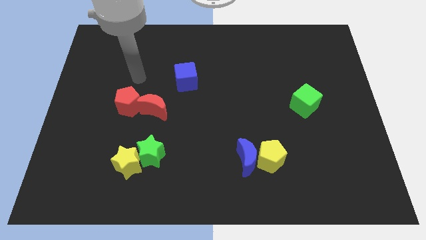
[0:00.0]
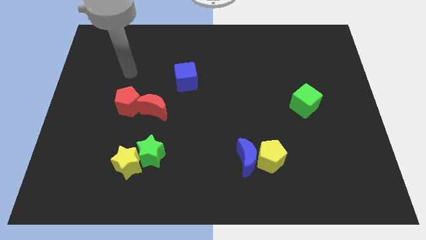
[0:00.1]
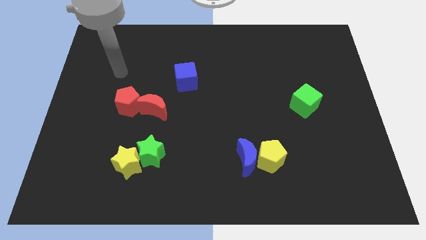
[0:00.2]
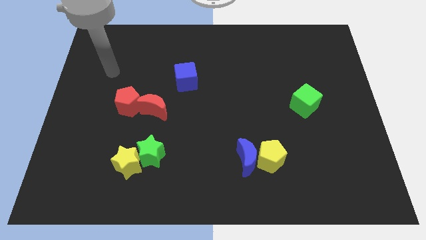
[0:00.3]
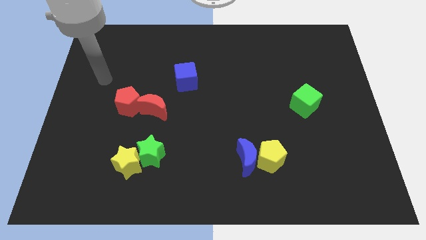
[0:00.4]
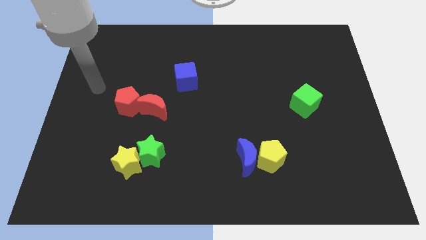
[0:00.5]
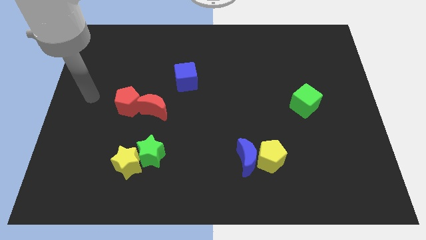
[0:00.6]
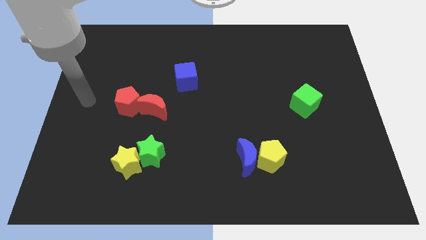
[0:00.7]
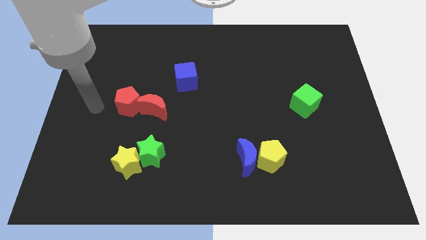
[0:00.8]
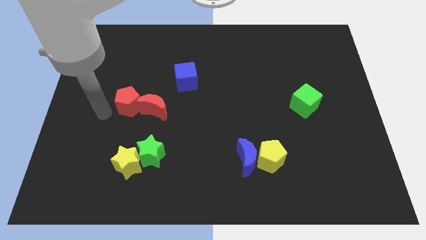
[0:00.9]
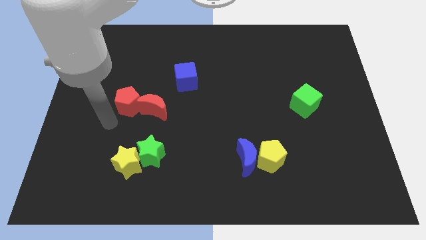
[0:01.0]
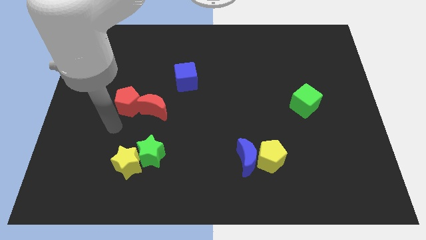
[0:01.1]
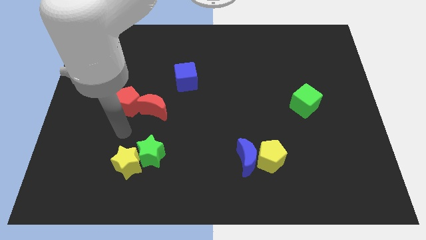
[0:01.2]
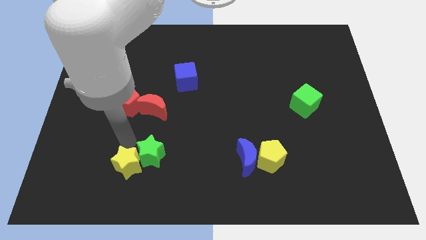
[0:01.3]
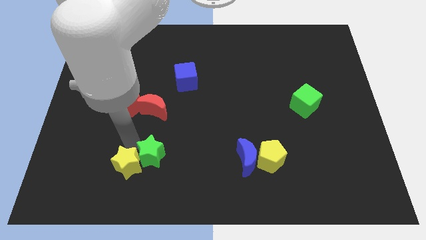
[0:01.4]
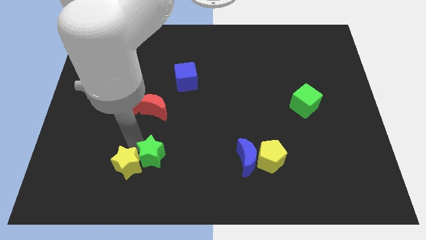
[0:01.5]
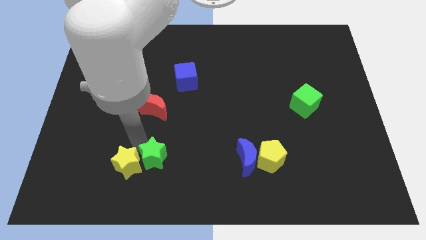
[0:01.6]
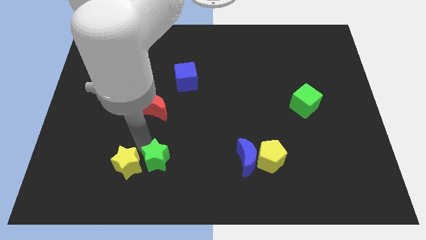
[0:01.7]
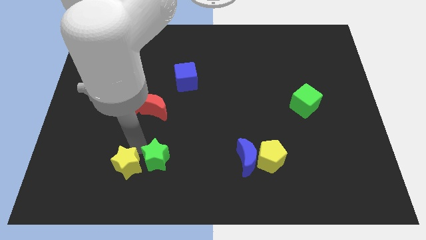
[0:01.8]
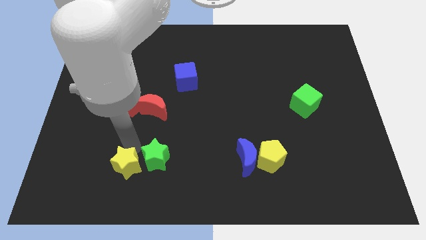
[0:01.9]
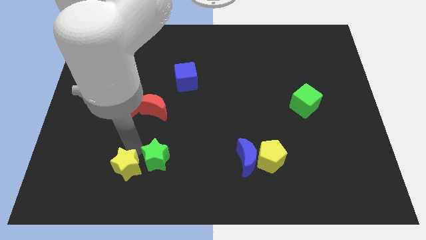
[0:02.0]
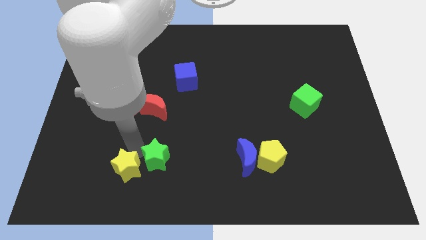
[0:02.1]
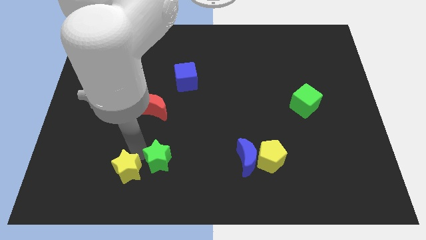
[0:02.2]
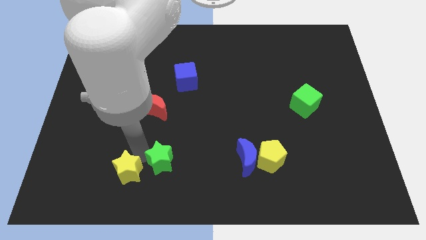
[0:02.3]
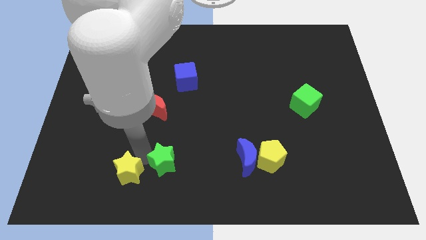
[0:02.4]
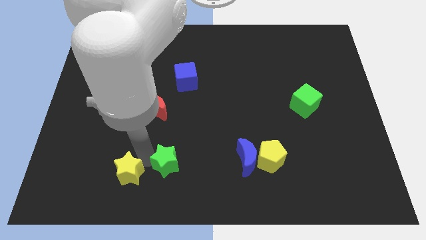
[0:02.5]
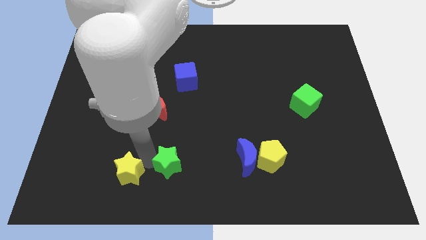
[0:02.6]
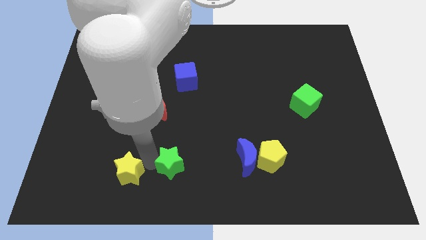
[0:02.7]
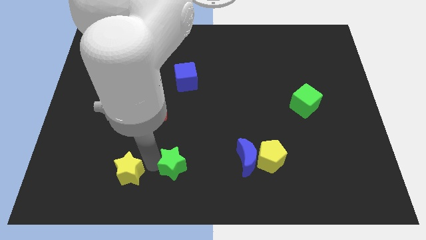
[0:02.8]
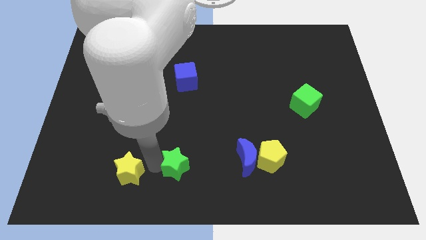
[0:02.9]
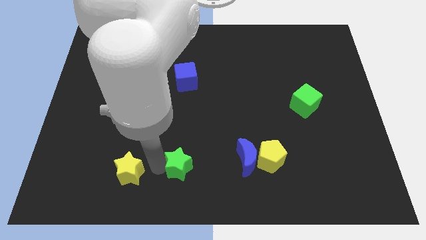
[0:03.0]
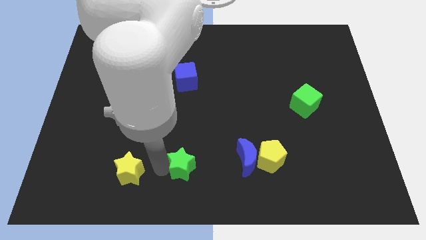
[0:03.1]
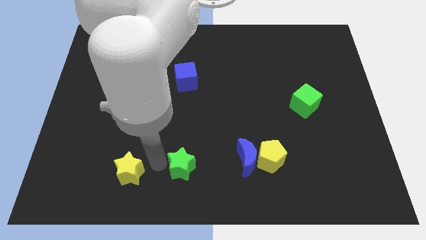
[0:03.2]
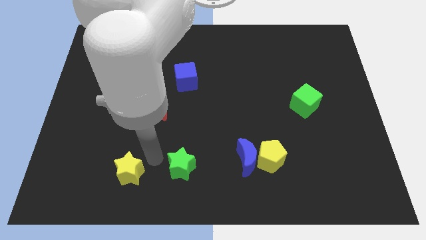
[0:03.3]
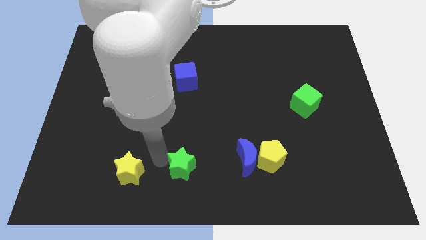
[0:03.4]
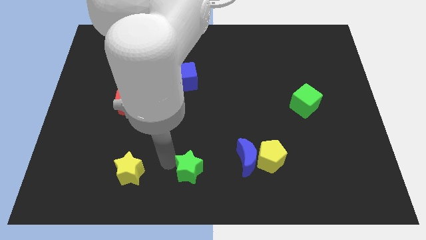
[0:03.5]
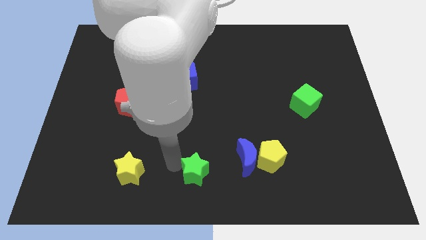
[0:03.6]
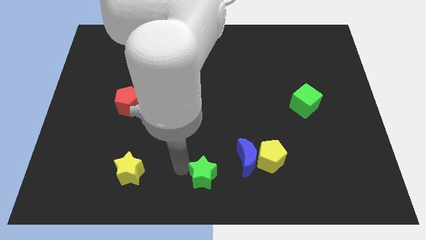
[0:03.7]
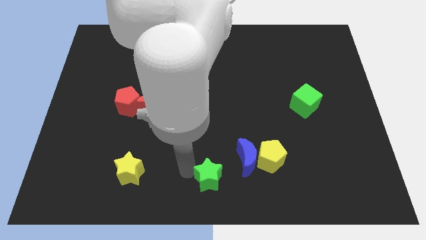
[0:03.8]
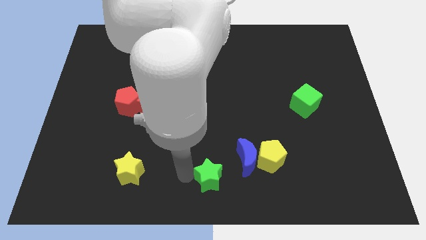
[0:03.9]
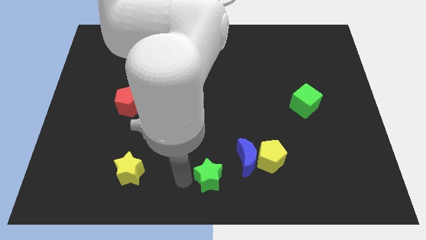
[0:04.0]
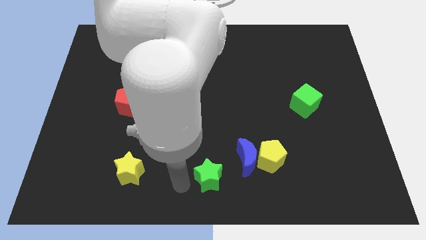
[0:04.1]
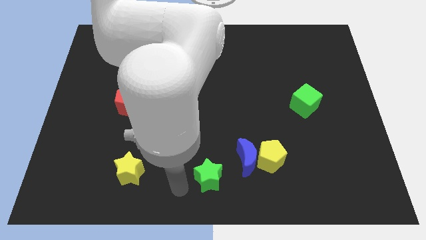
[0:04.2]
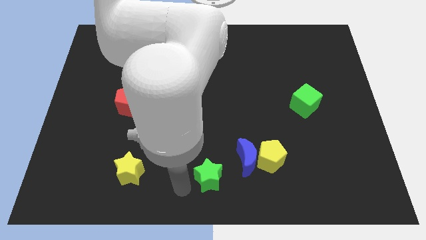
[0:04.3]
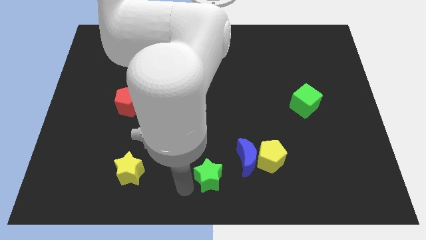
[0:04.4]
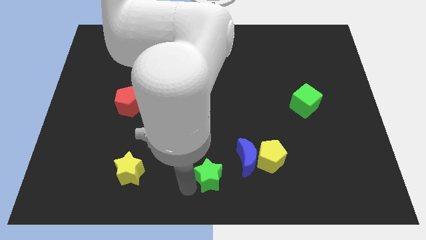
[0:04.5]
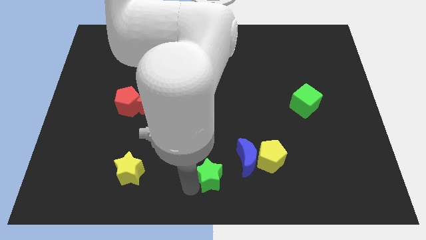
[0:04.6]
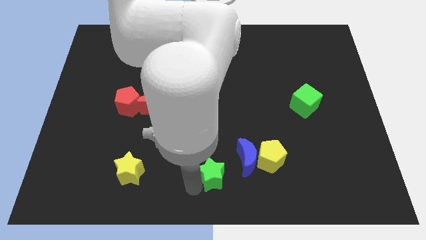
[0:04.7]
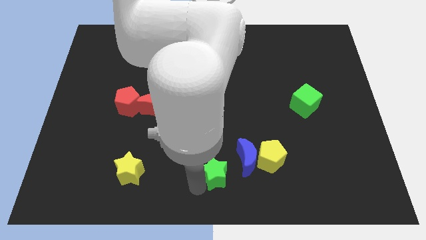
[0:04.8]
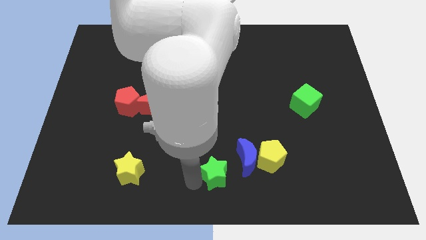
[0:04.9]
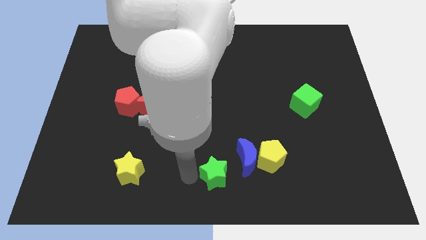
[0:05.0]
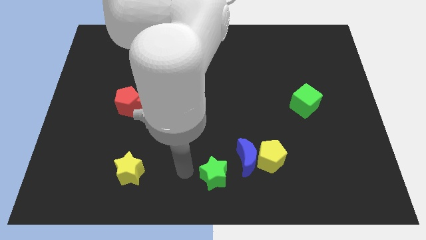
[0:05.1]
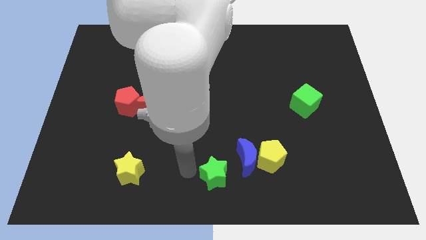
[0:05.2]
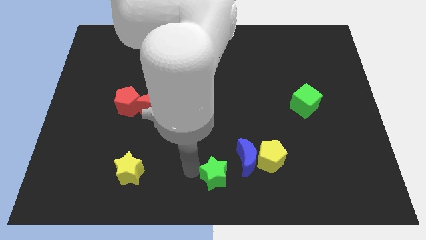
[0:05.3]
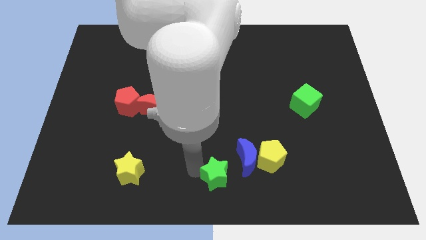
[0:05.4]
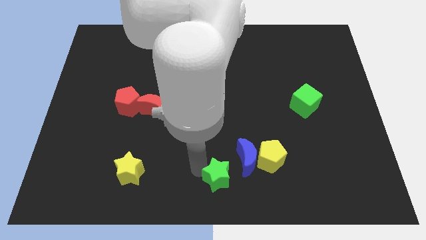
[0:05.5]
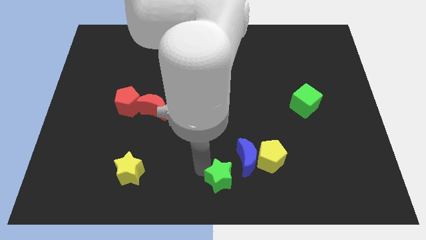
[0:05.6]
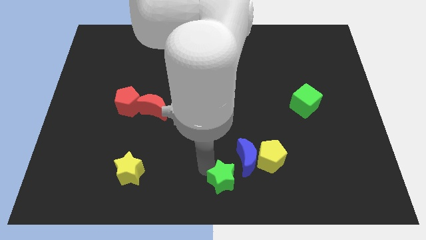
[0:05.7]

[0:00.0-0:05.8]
push the green star diagonally down and to the left of the yellow pentagon

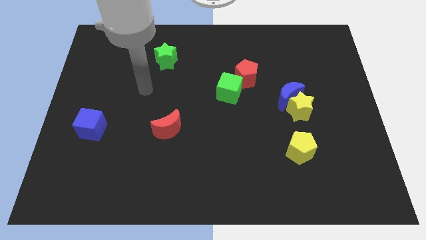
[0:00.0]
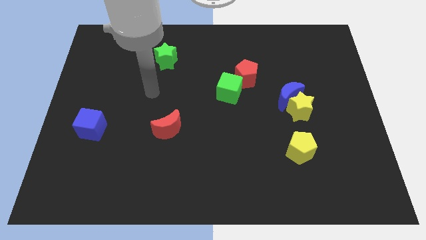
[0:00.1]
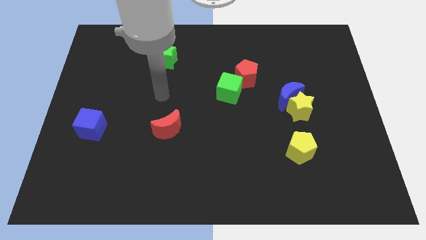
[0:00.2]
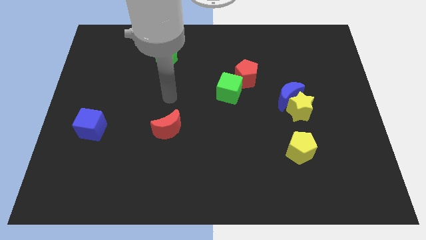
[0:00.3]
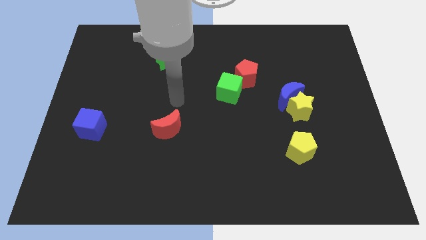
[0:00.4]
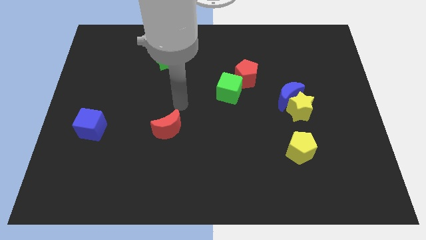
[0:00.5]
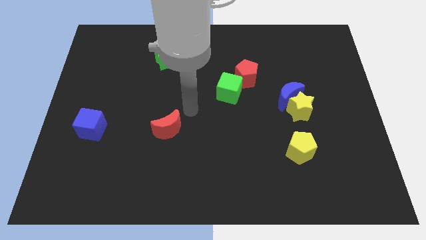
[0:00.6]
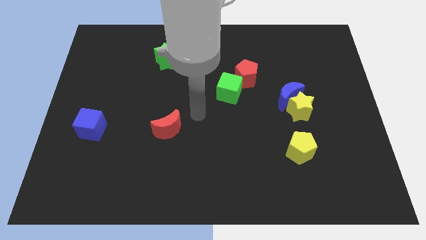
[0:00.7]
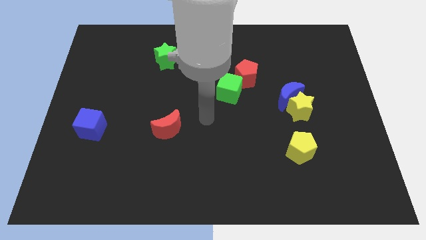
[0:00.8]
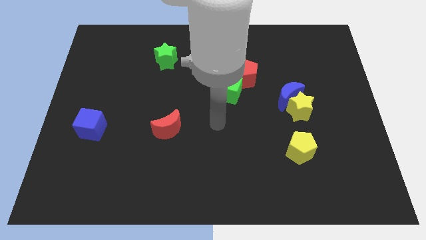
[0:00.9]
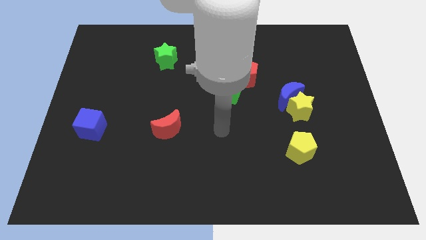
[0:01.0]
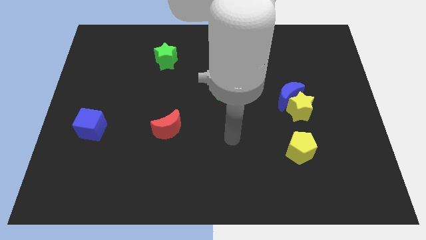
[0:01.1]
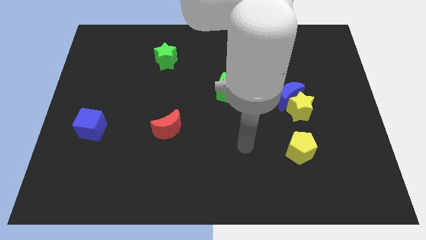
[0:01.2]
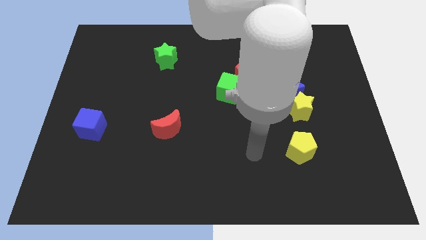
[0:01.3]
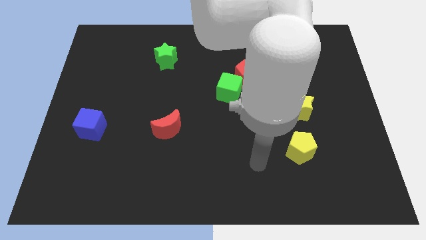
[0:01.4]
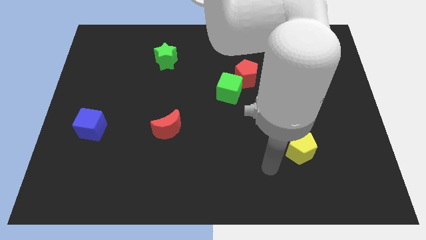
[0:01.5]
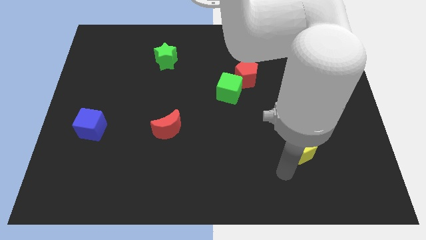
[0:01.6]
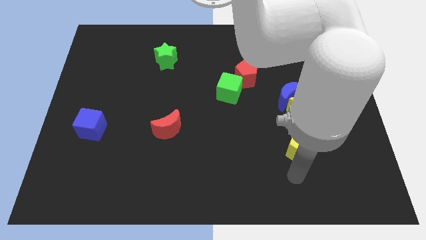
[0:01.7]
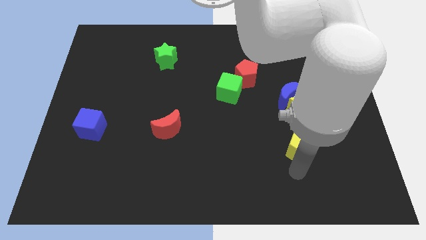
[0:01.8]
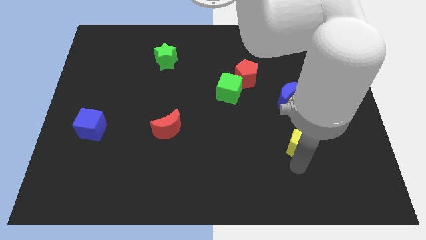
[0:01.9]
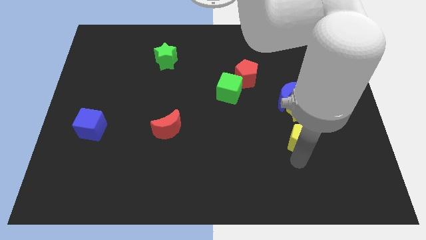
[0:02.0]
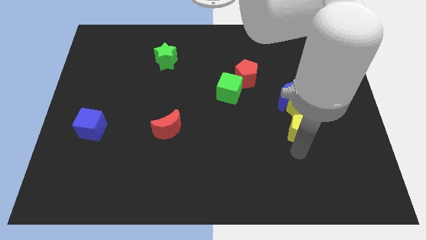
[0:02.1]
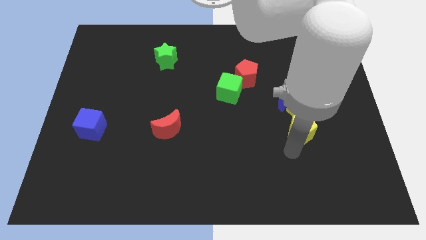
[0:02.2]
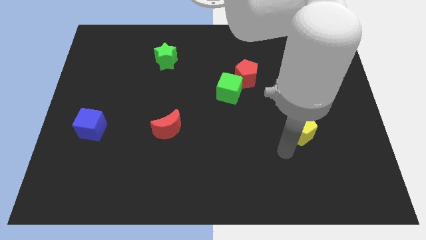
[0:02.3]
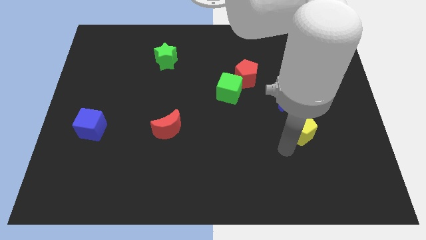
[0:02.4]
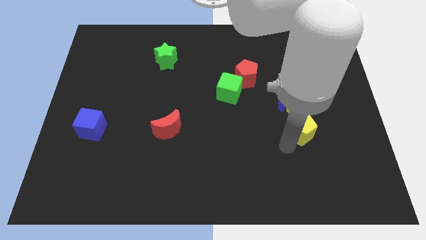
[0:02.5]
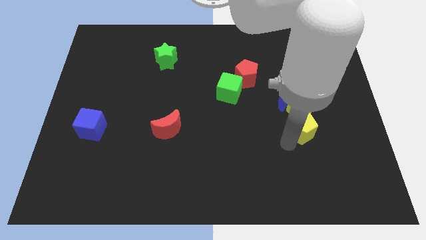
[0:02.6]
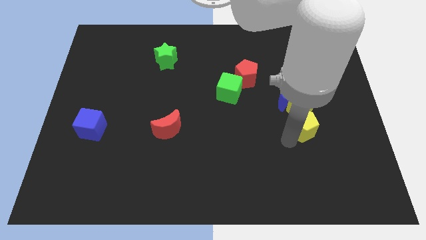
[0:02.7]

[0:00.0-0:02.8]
push the yellow pentagon diagonally down and to the right of the blue moon
